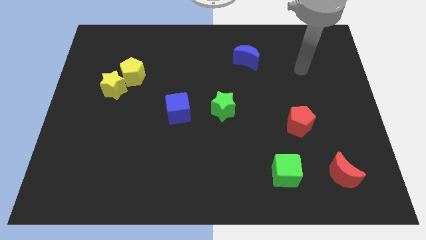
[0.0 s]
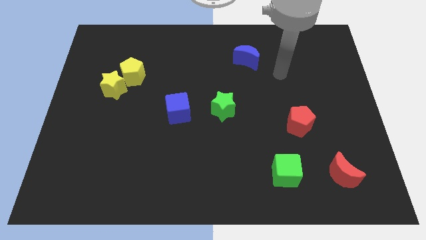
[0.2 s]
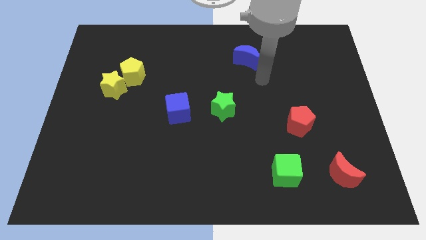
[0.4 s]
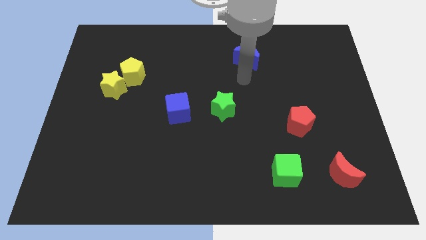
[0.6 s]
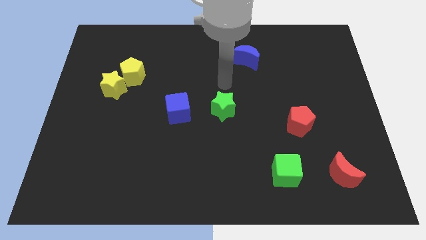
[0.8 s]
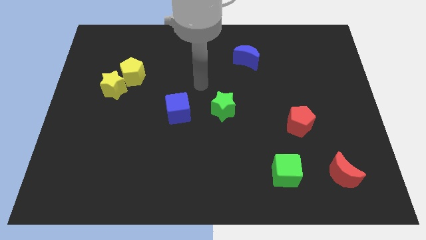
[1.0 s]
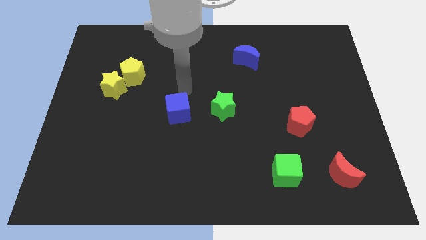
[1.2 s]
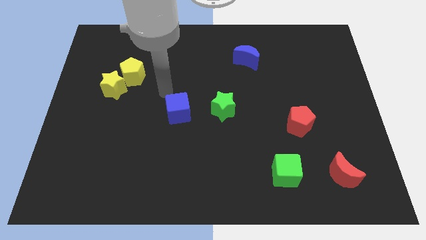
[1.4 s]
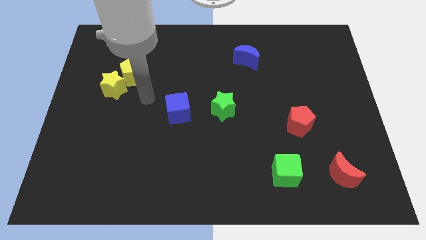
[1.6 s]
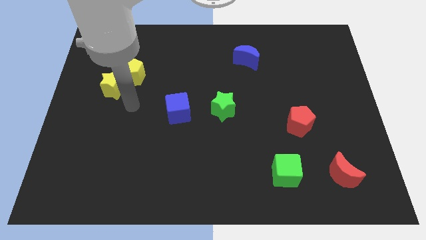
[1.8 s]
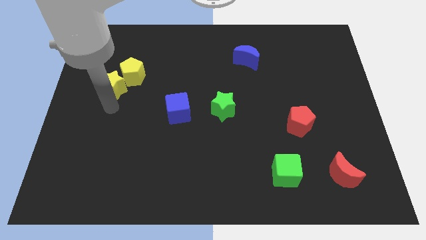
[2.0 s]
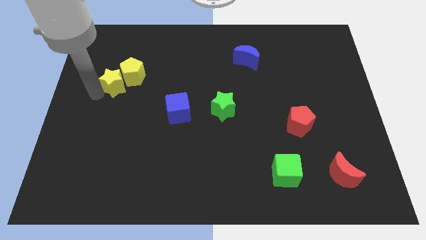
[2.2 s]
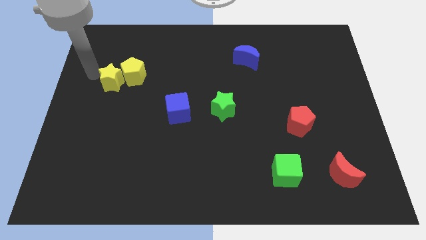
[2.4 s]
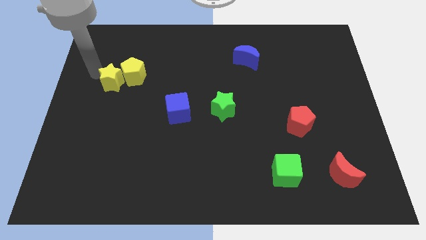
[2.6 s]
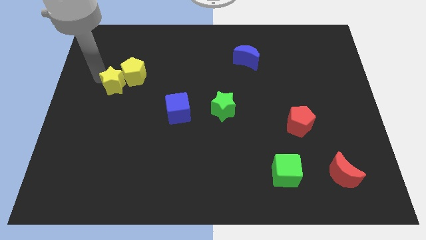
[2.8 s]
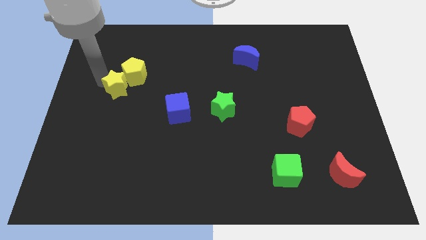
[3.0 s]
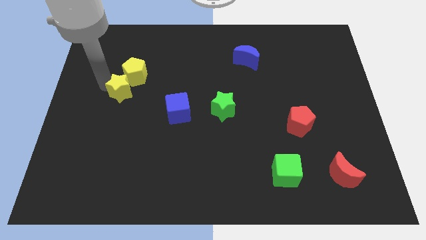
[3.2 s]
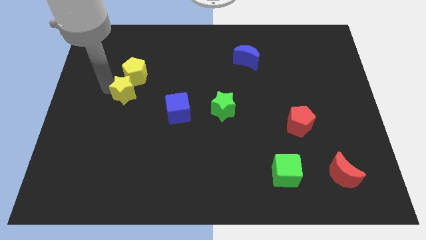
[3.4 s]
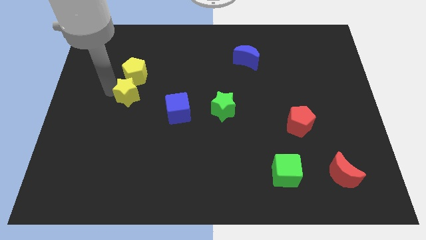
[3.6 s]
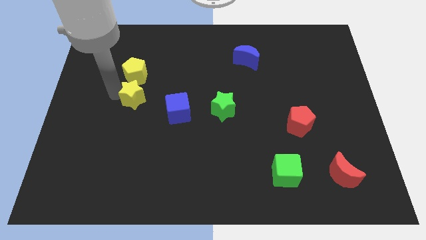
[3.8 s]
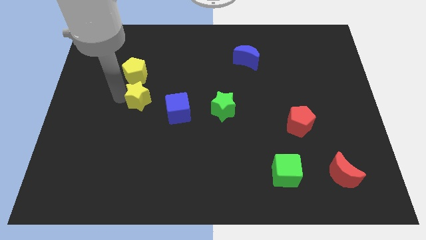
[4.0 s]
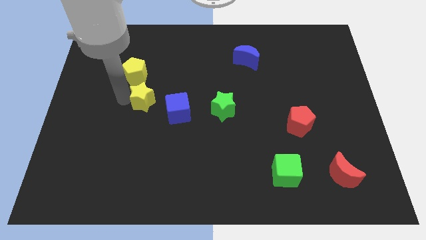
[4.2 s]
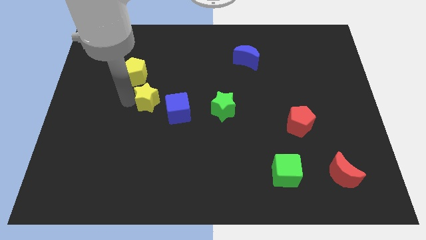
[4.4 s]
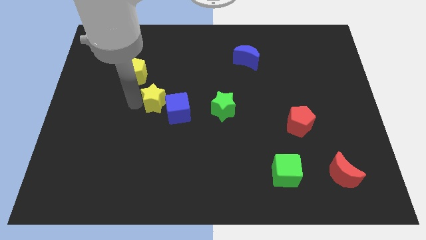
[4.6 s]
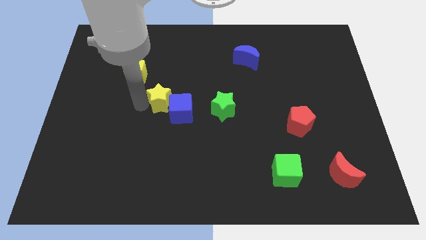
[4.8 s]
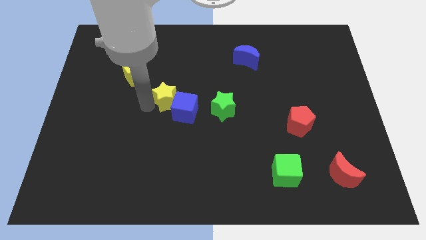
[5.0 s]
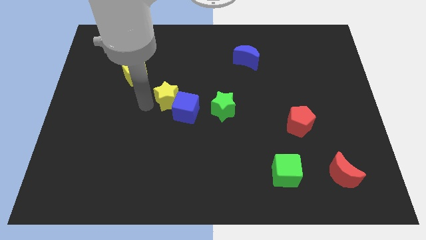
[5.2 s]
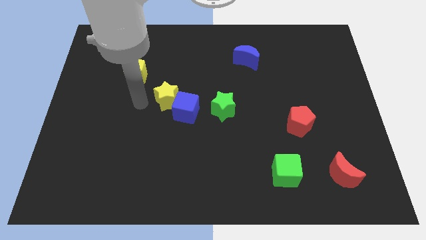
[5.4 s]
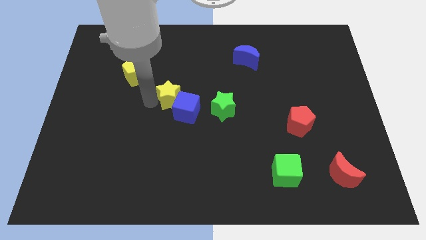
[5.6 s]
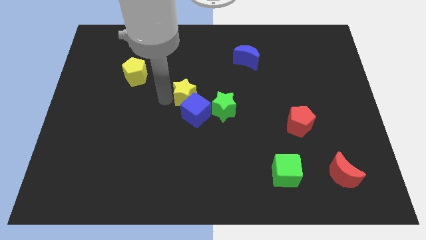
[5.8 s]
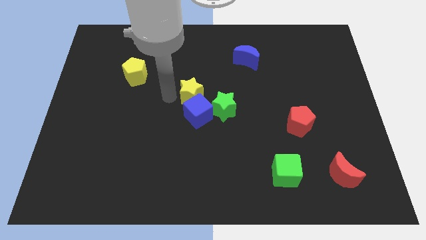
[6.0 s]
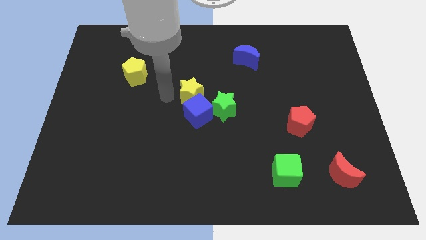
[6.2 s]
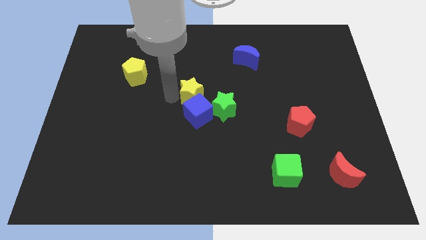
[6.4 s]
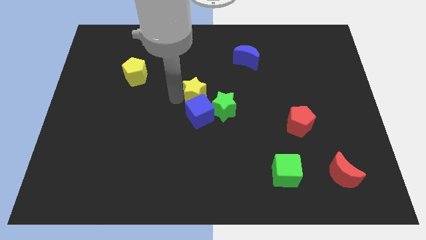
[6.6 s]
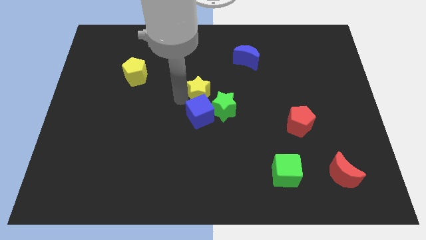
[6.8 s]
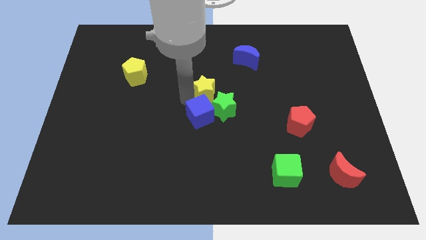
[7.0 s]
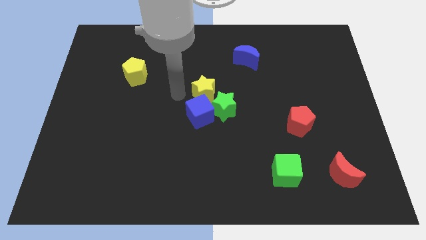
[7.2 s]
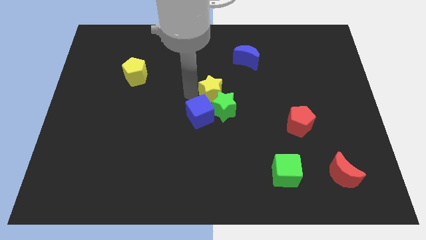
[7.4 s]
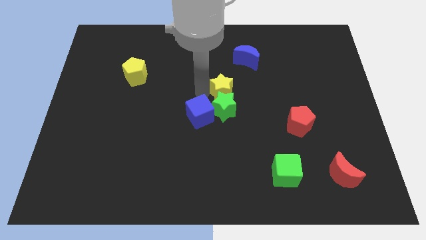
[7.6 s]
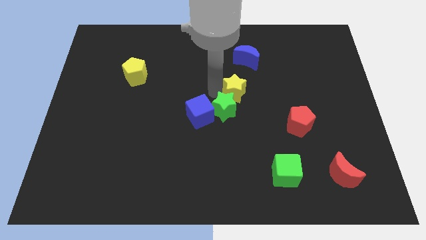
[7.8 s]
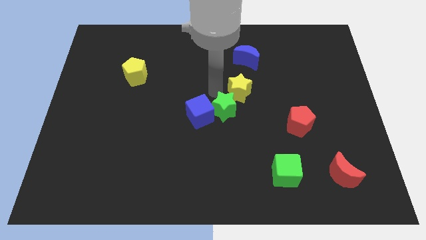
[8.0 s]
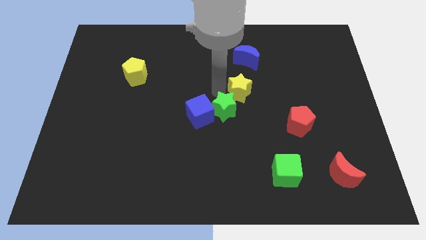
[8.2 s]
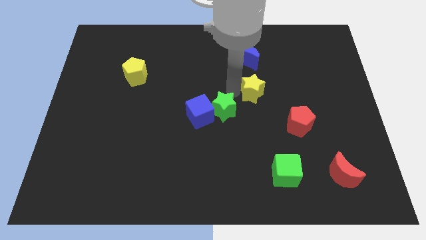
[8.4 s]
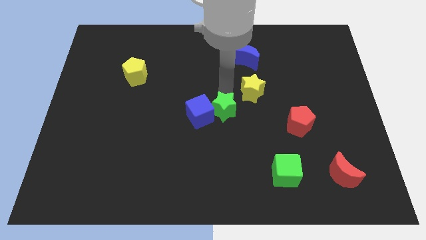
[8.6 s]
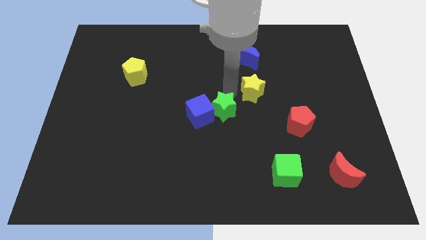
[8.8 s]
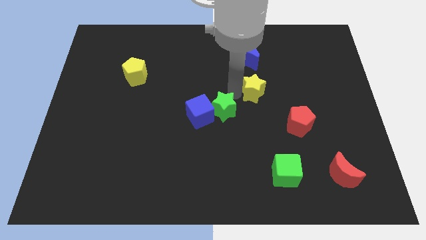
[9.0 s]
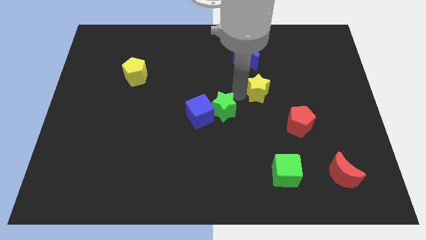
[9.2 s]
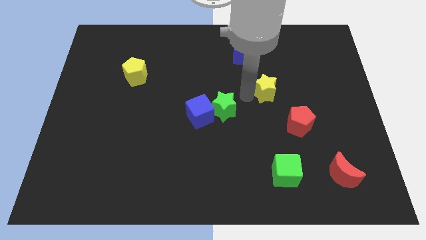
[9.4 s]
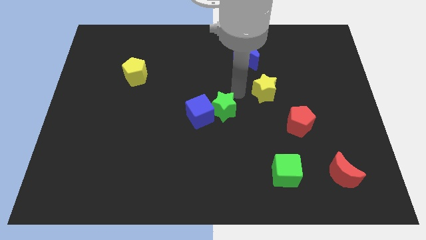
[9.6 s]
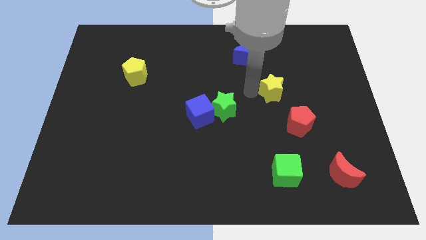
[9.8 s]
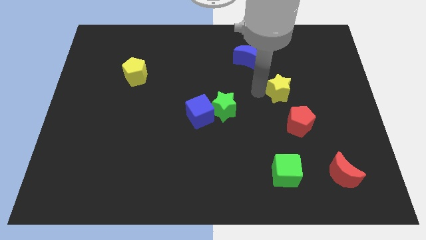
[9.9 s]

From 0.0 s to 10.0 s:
move the yellow star above the red pentagon

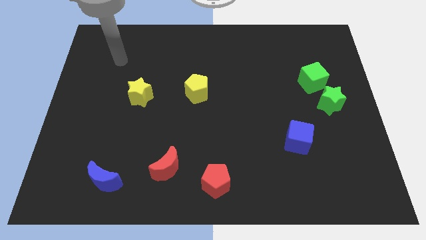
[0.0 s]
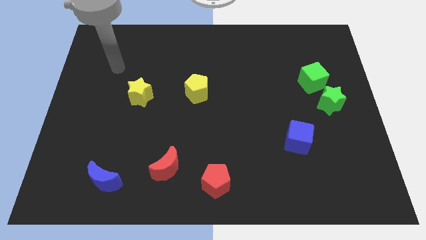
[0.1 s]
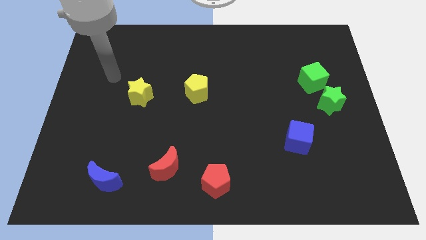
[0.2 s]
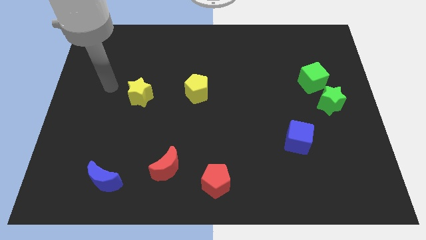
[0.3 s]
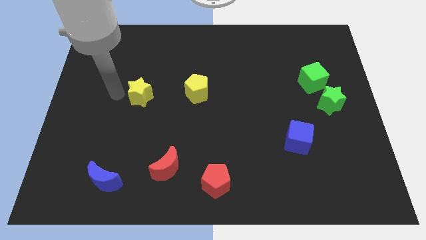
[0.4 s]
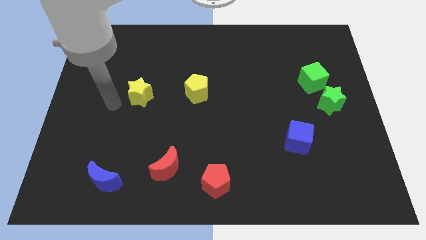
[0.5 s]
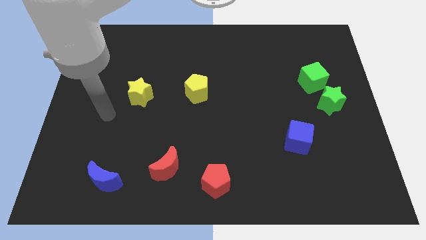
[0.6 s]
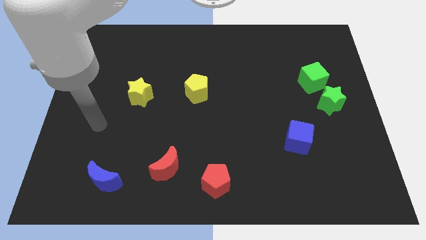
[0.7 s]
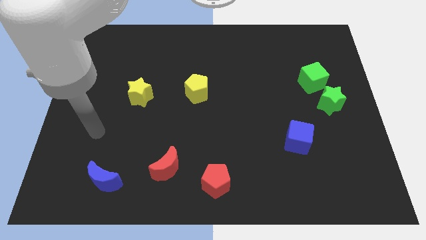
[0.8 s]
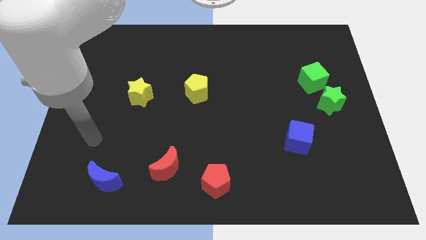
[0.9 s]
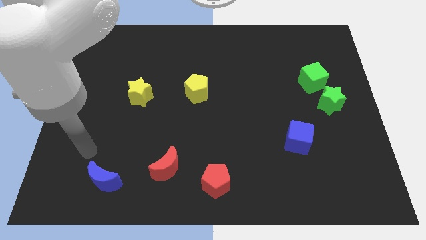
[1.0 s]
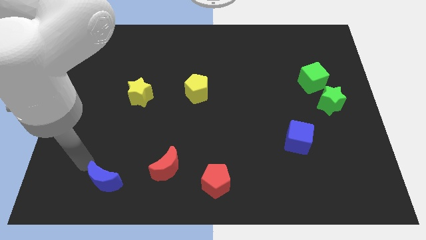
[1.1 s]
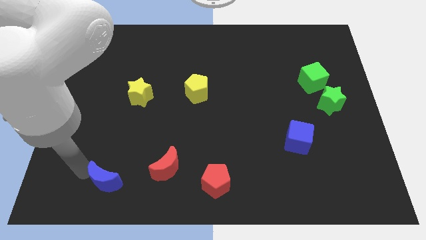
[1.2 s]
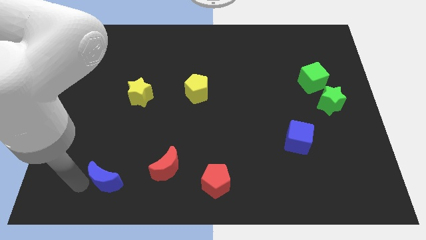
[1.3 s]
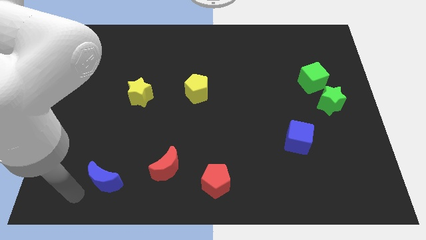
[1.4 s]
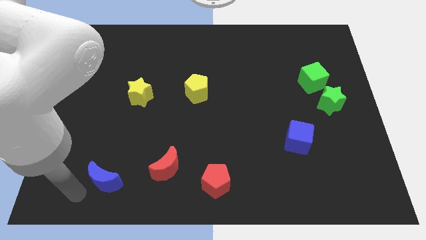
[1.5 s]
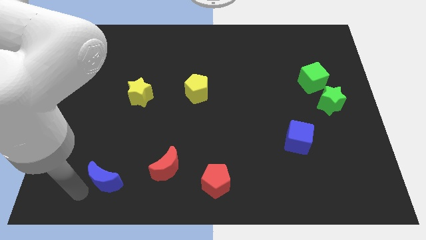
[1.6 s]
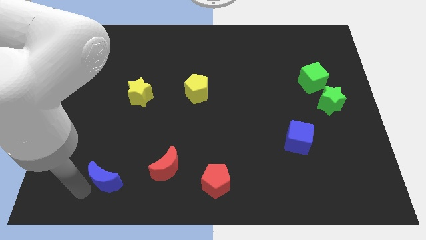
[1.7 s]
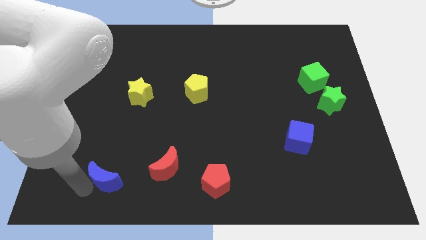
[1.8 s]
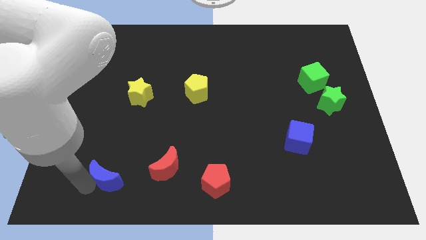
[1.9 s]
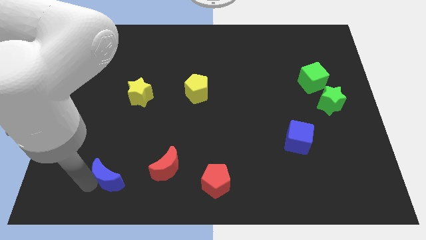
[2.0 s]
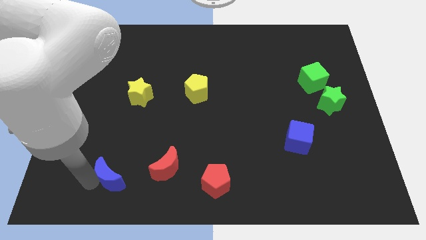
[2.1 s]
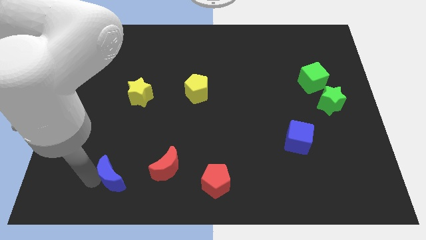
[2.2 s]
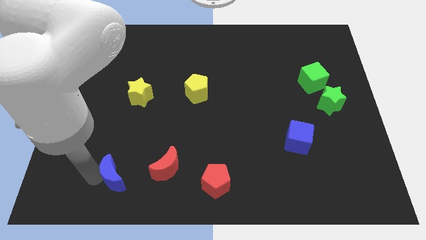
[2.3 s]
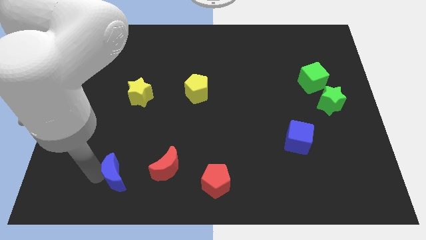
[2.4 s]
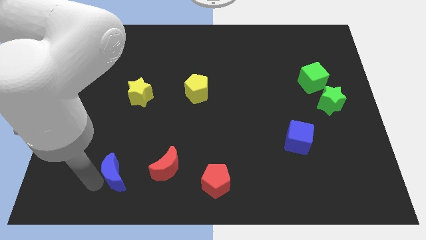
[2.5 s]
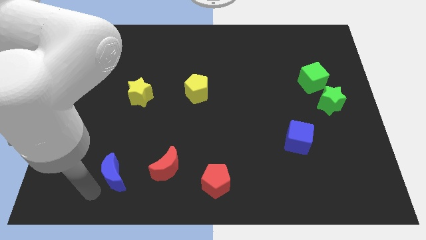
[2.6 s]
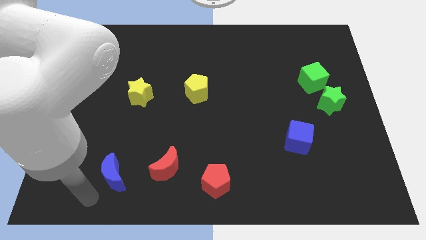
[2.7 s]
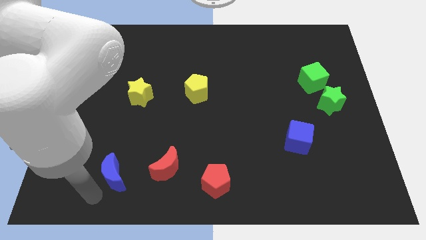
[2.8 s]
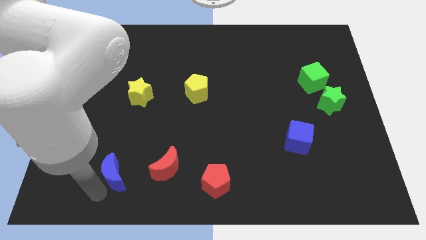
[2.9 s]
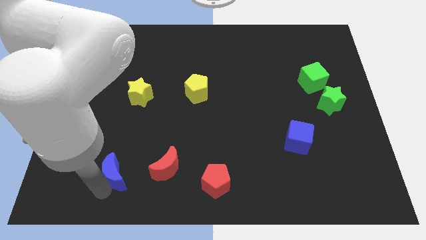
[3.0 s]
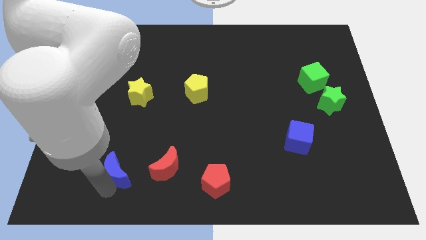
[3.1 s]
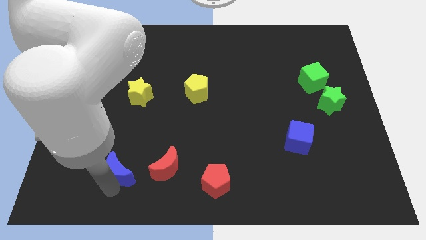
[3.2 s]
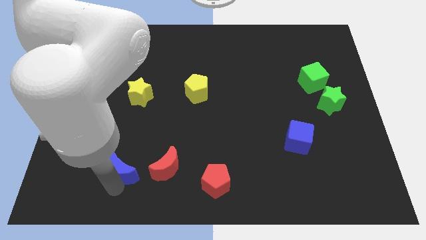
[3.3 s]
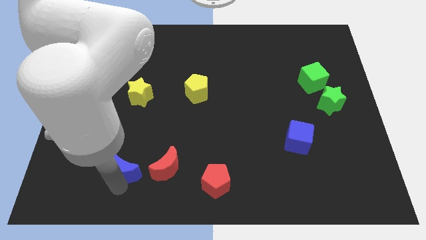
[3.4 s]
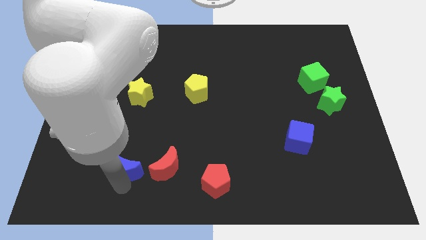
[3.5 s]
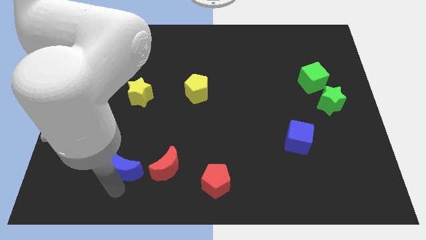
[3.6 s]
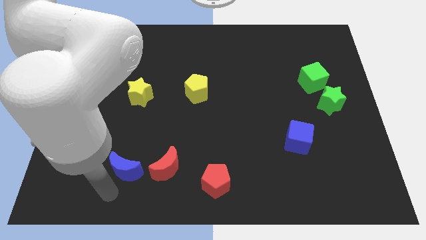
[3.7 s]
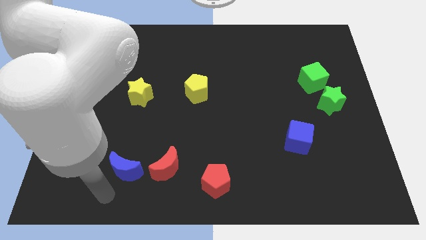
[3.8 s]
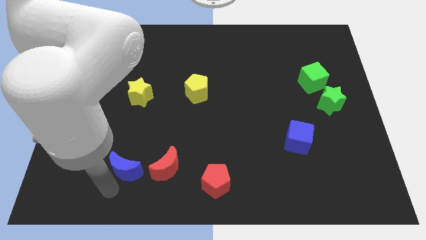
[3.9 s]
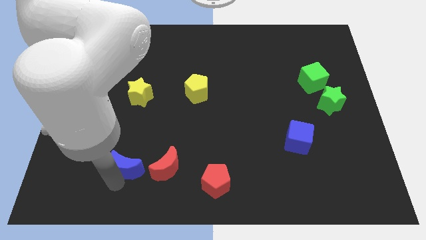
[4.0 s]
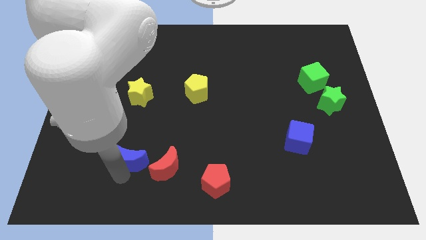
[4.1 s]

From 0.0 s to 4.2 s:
move the blue moon to the top left side of the red moon
